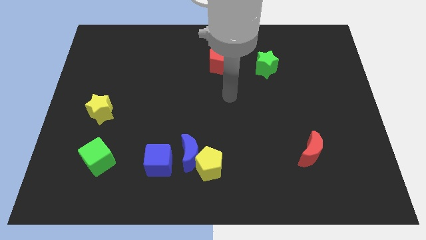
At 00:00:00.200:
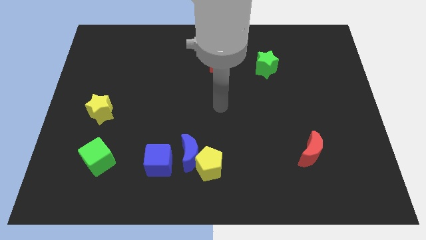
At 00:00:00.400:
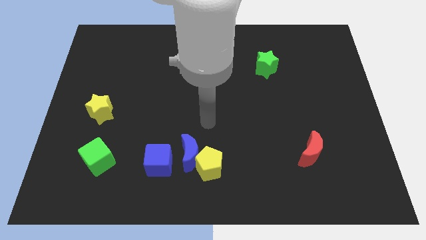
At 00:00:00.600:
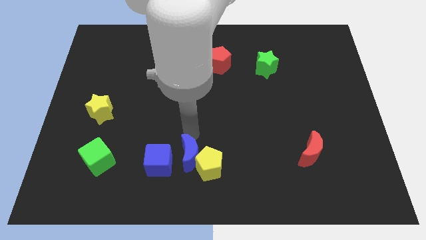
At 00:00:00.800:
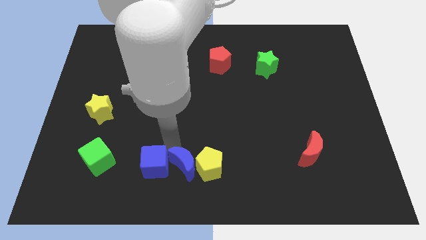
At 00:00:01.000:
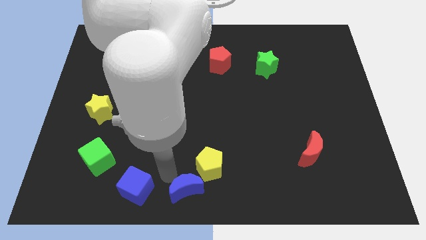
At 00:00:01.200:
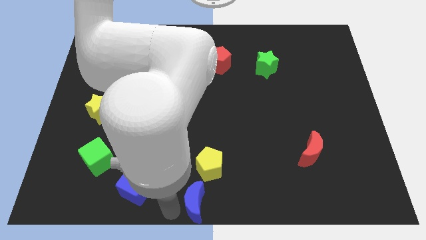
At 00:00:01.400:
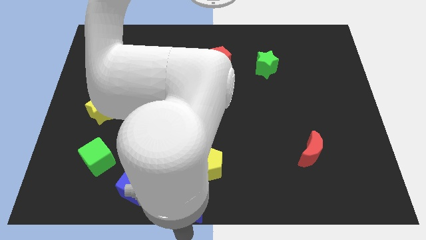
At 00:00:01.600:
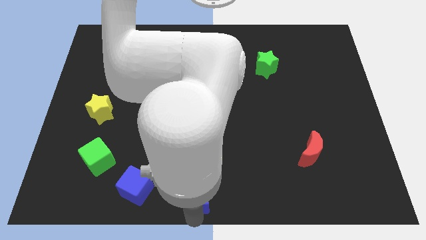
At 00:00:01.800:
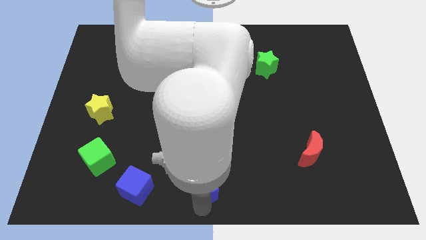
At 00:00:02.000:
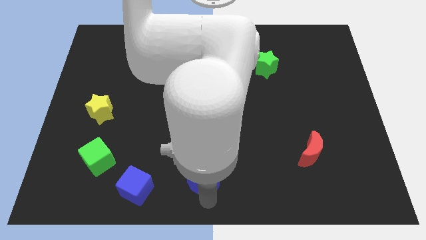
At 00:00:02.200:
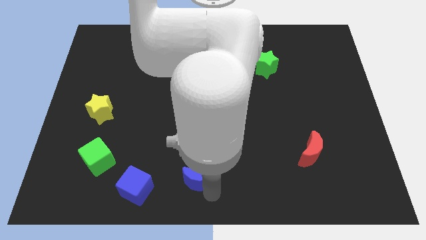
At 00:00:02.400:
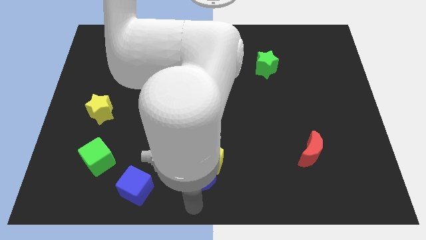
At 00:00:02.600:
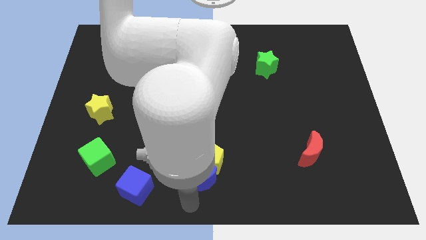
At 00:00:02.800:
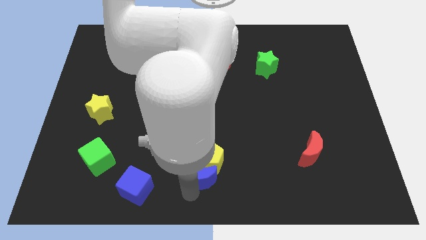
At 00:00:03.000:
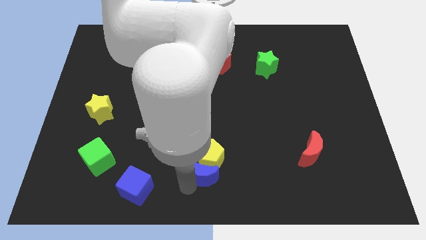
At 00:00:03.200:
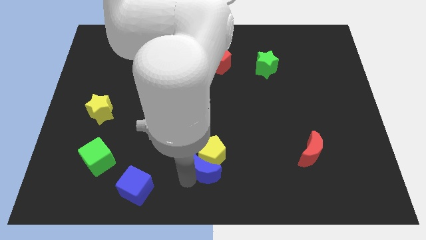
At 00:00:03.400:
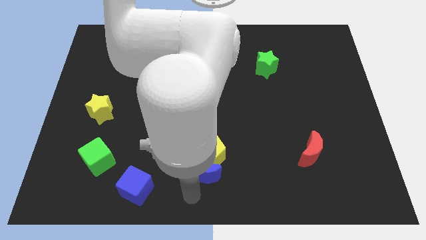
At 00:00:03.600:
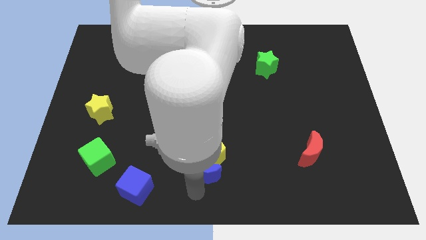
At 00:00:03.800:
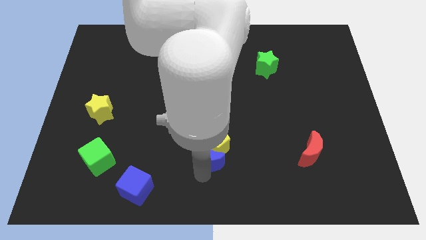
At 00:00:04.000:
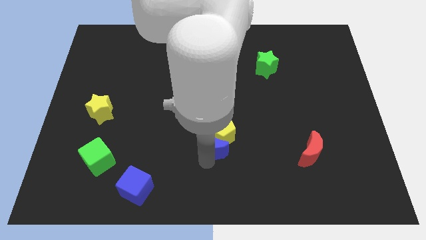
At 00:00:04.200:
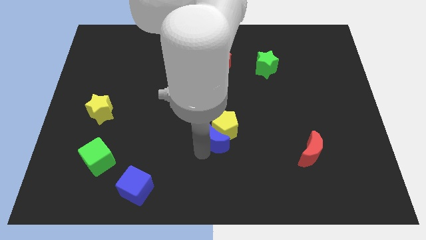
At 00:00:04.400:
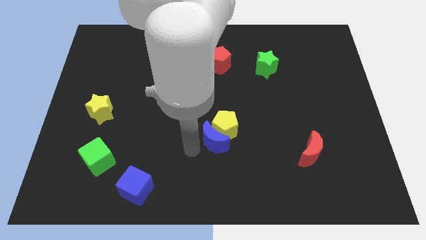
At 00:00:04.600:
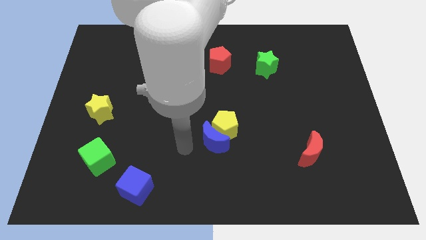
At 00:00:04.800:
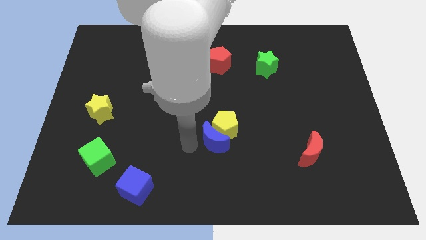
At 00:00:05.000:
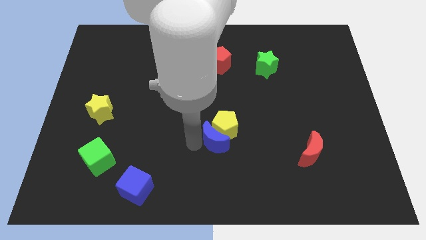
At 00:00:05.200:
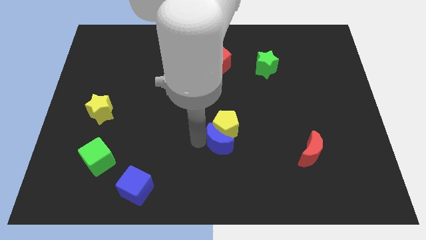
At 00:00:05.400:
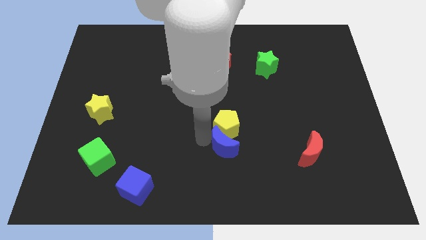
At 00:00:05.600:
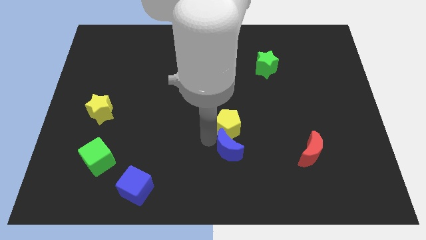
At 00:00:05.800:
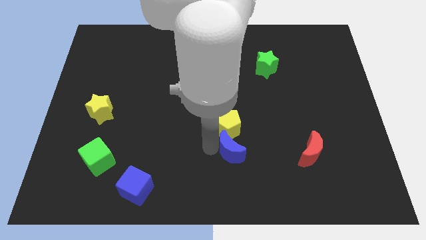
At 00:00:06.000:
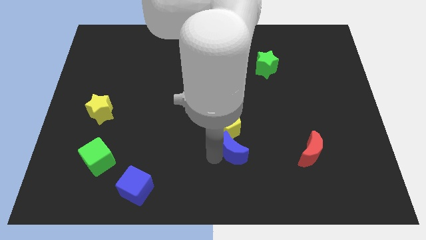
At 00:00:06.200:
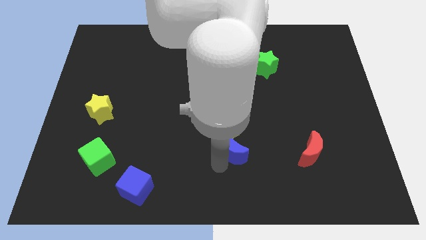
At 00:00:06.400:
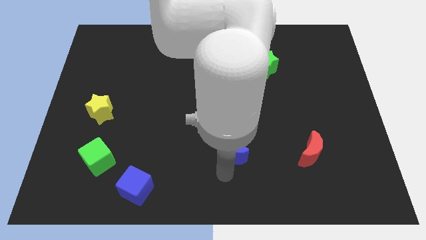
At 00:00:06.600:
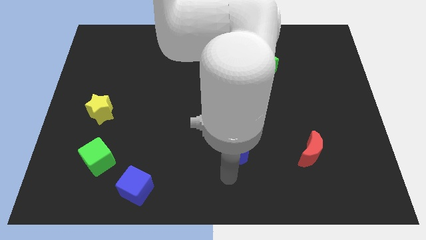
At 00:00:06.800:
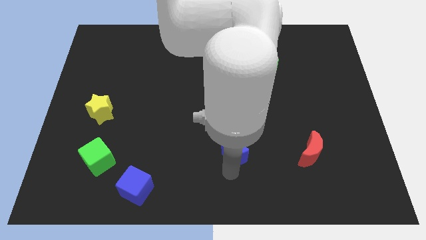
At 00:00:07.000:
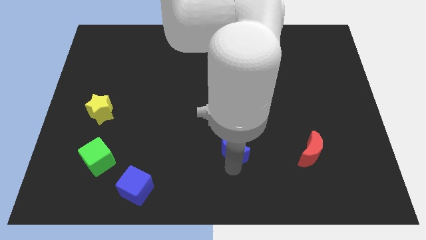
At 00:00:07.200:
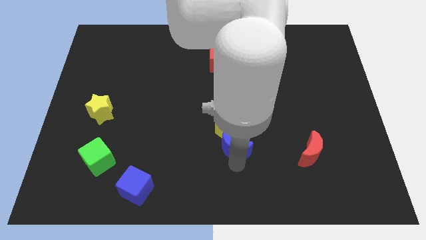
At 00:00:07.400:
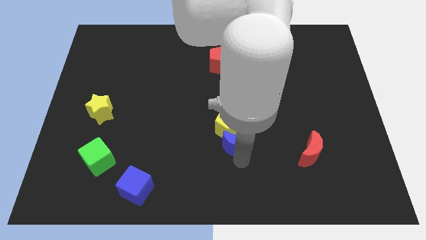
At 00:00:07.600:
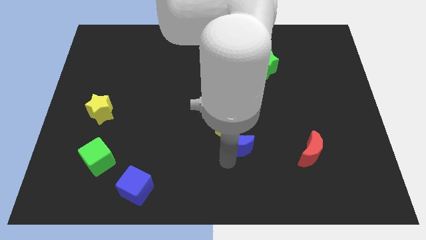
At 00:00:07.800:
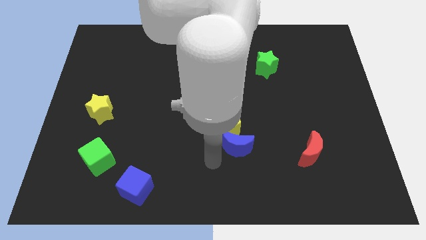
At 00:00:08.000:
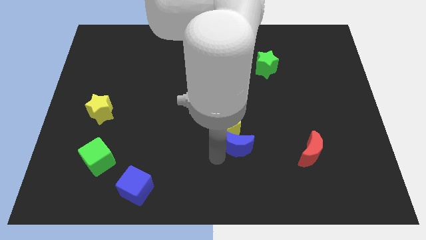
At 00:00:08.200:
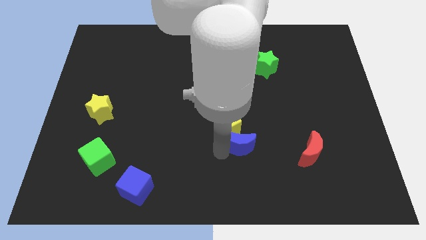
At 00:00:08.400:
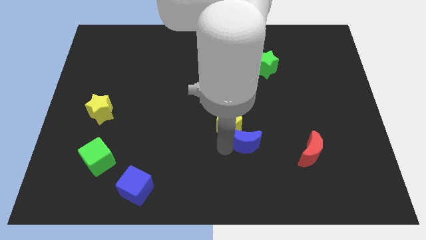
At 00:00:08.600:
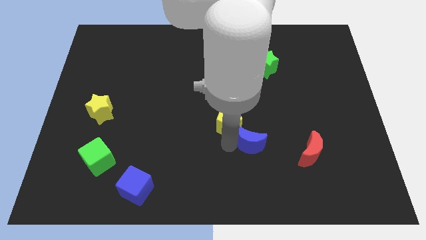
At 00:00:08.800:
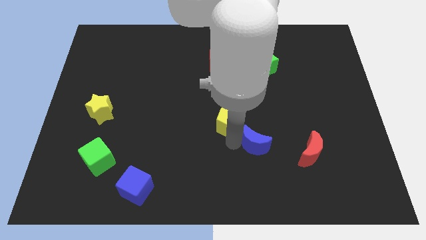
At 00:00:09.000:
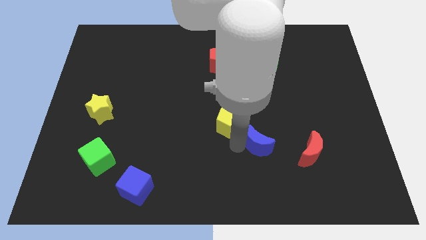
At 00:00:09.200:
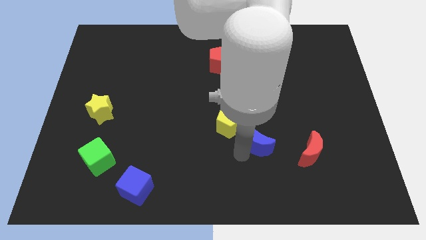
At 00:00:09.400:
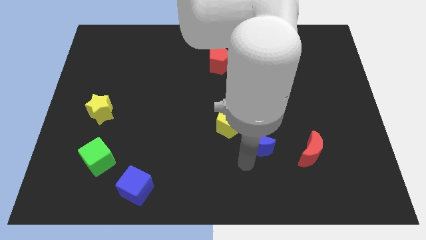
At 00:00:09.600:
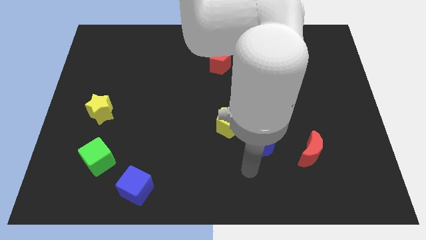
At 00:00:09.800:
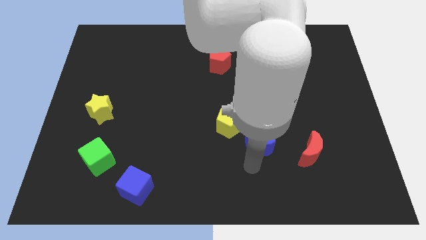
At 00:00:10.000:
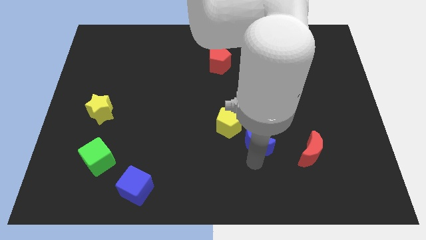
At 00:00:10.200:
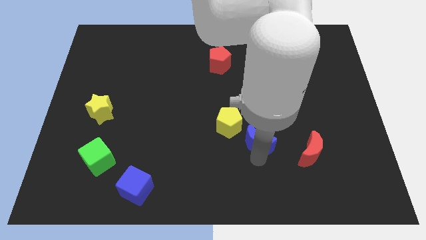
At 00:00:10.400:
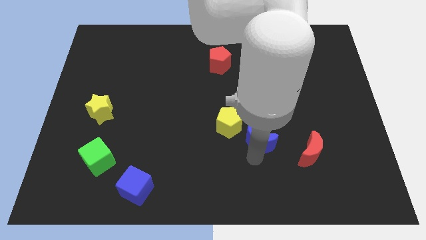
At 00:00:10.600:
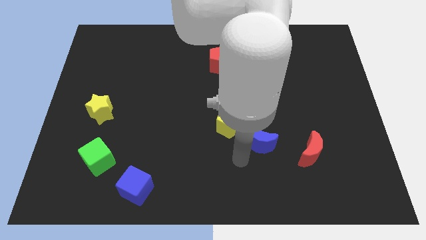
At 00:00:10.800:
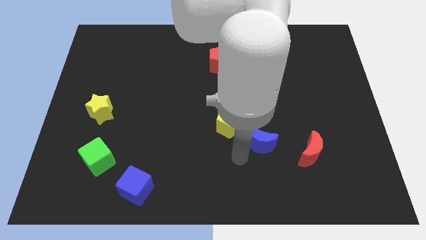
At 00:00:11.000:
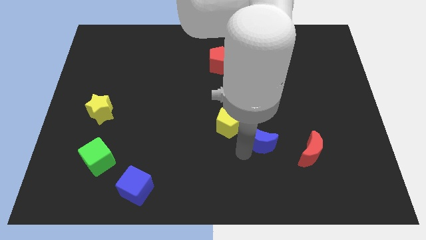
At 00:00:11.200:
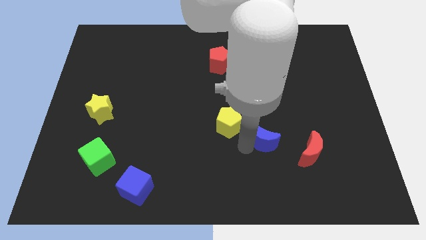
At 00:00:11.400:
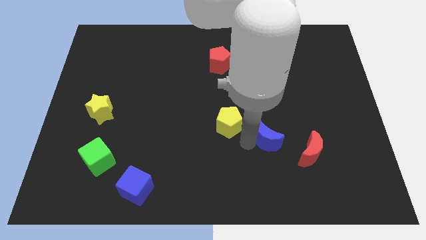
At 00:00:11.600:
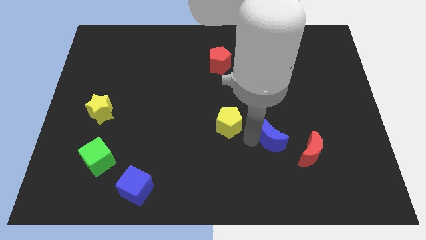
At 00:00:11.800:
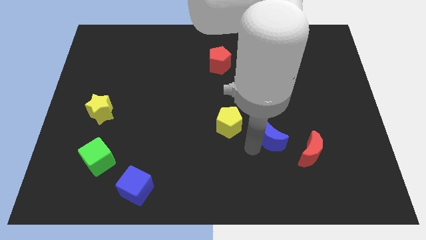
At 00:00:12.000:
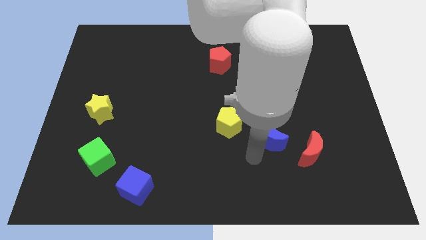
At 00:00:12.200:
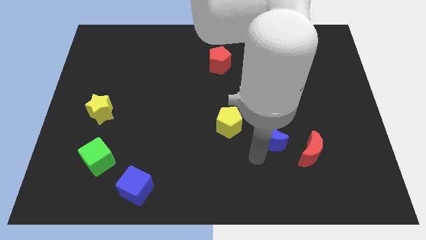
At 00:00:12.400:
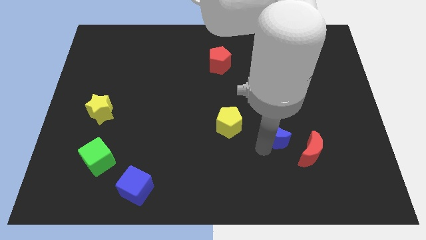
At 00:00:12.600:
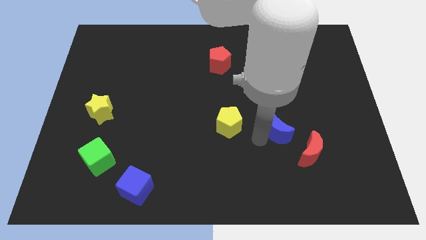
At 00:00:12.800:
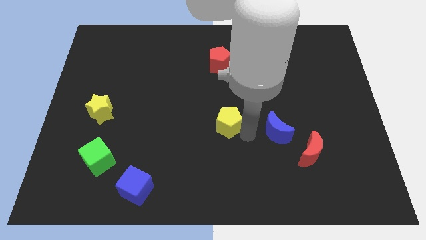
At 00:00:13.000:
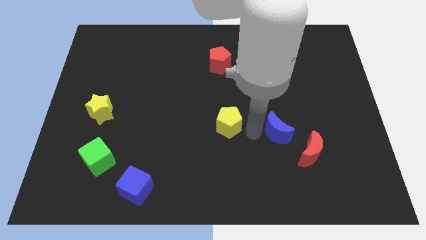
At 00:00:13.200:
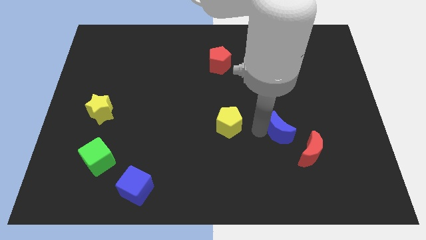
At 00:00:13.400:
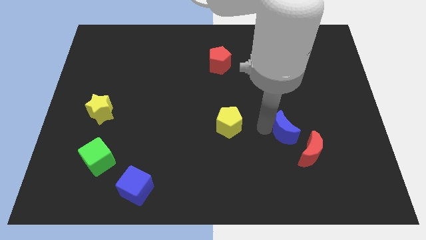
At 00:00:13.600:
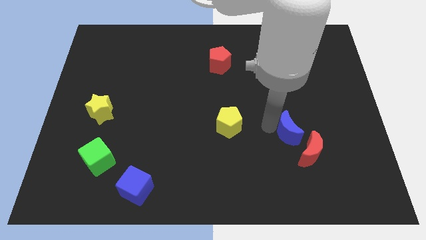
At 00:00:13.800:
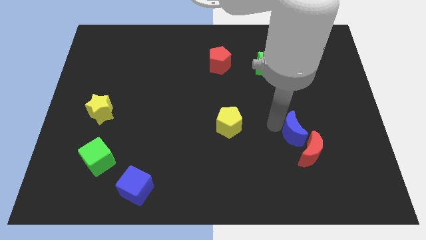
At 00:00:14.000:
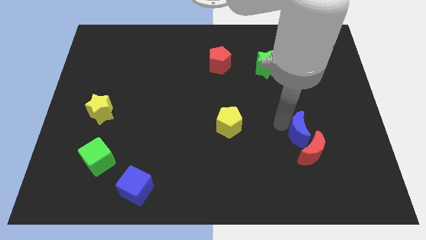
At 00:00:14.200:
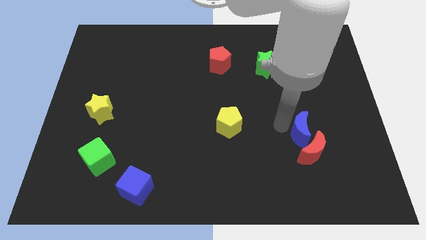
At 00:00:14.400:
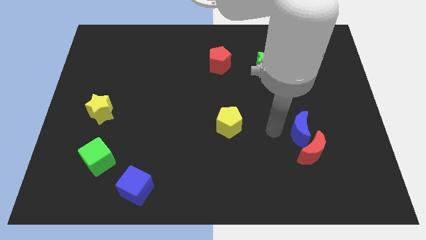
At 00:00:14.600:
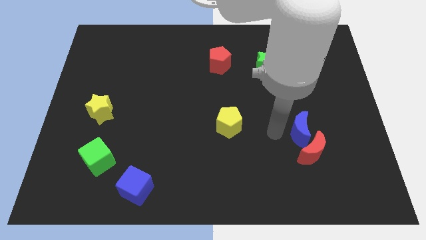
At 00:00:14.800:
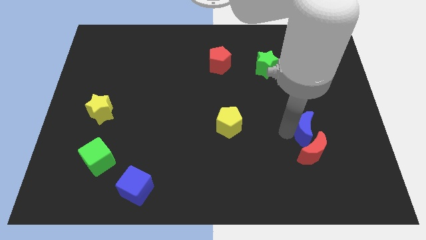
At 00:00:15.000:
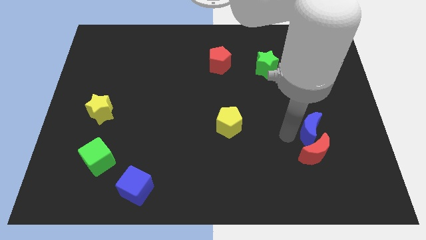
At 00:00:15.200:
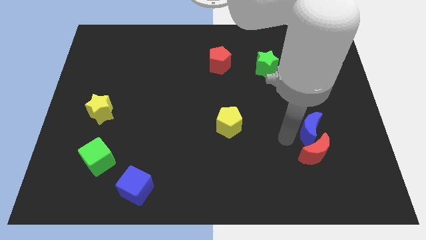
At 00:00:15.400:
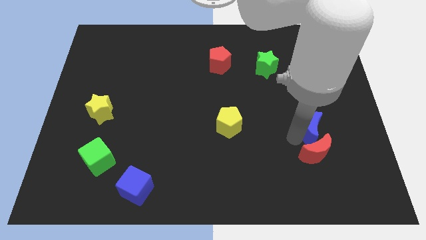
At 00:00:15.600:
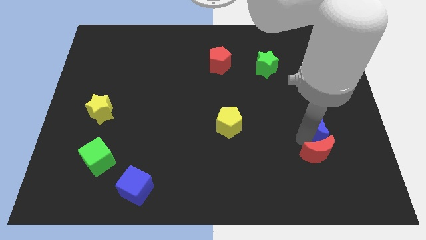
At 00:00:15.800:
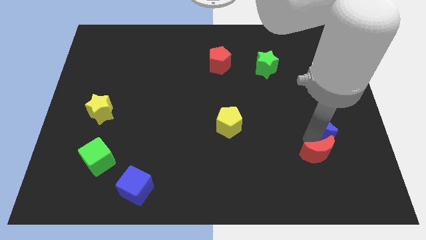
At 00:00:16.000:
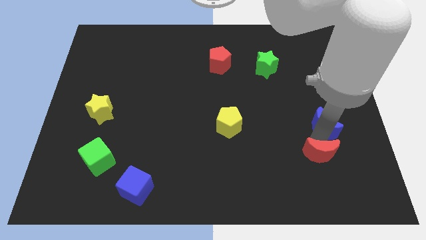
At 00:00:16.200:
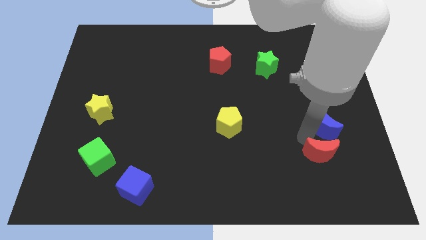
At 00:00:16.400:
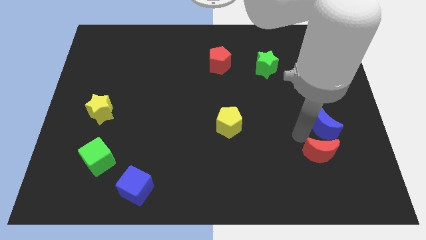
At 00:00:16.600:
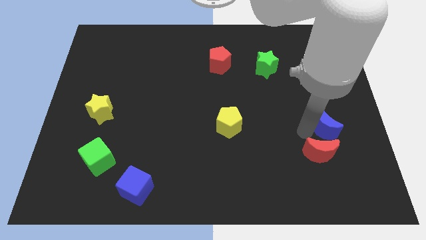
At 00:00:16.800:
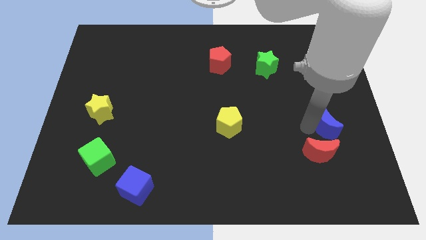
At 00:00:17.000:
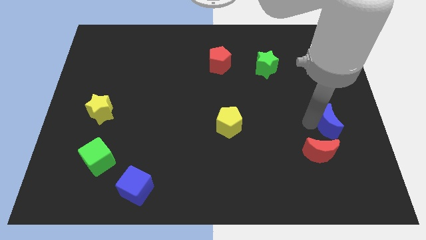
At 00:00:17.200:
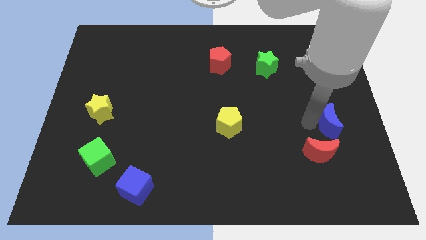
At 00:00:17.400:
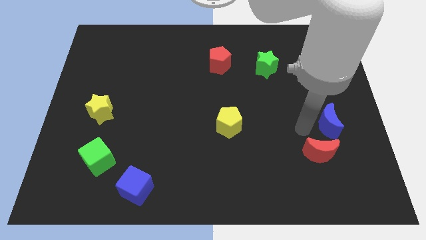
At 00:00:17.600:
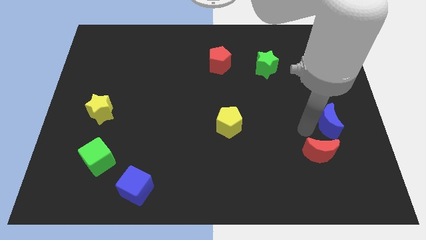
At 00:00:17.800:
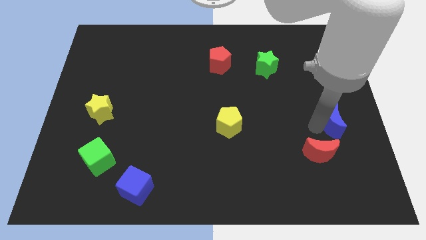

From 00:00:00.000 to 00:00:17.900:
put the blue moon to the center right
